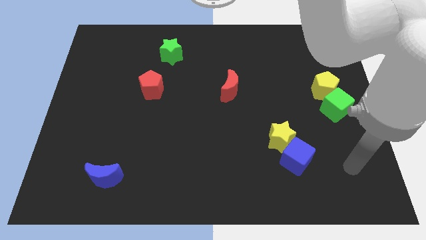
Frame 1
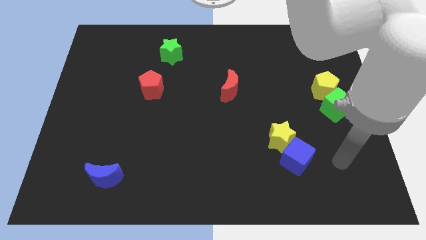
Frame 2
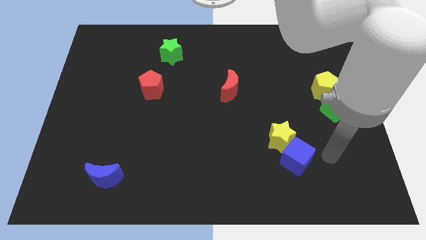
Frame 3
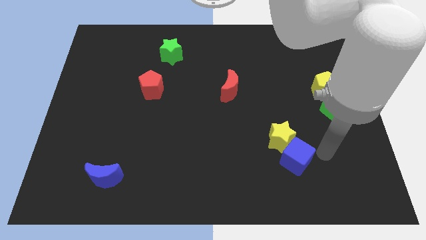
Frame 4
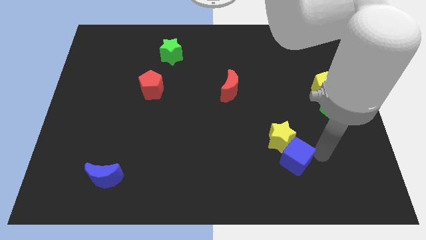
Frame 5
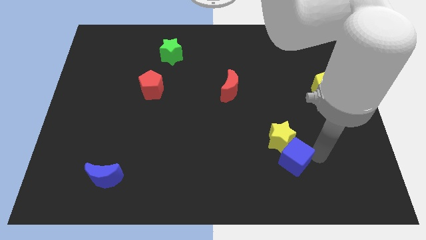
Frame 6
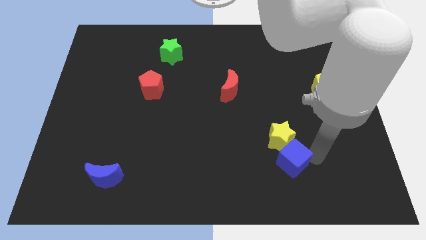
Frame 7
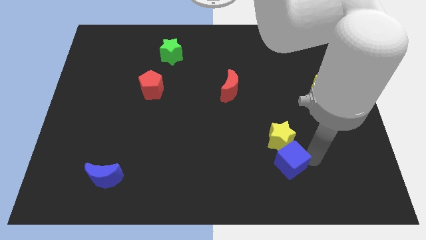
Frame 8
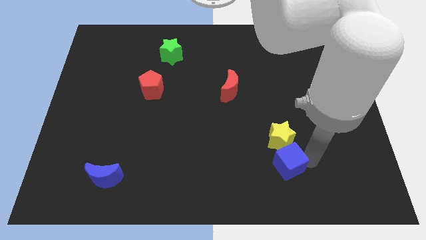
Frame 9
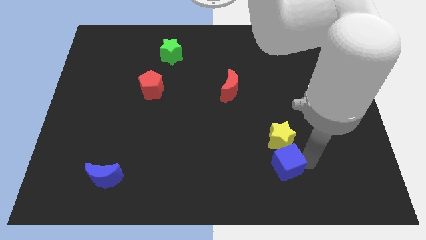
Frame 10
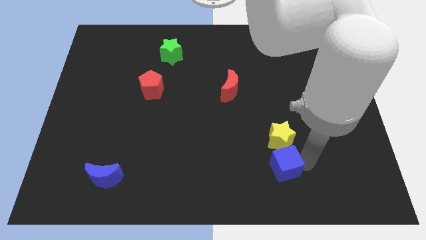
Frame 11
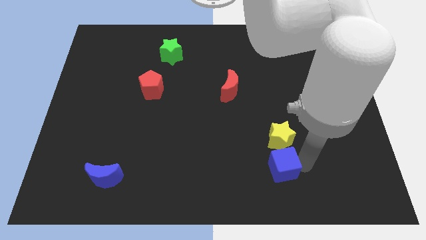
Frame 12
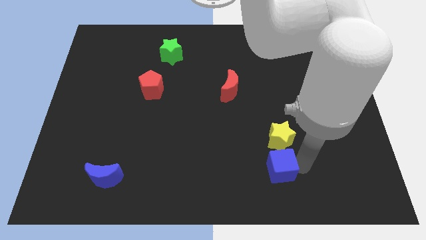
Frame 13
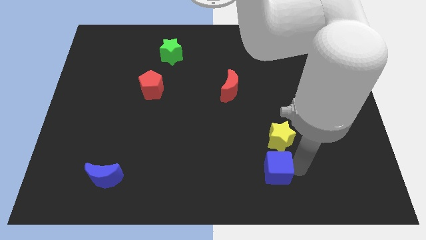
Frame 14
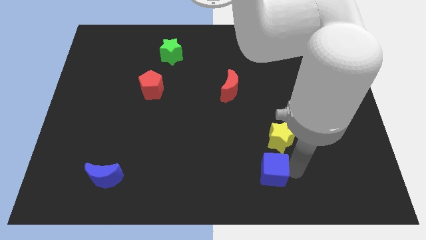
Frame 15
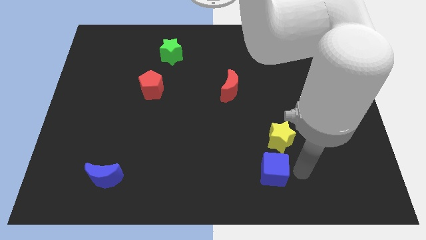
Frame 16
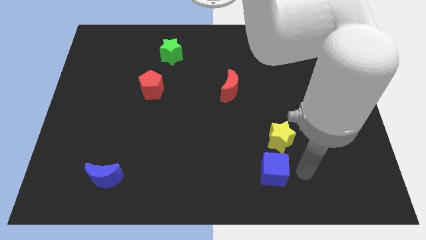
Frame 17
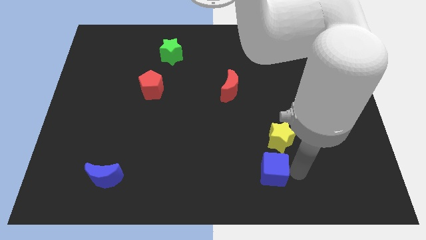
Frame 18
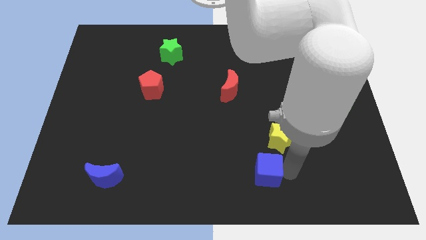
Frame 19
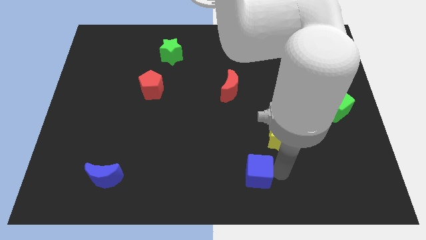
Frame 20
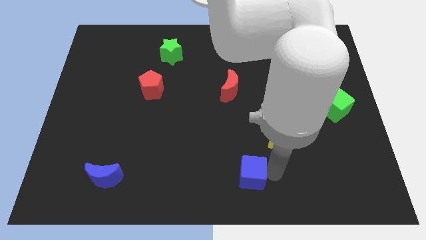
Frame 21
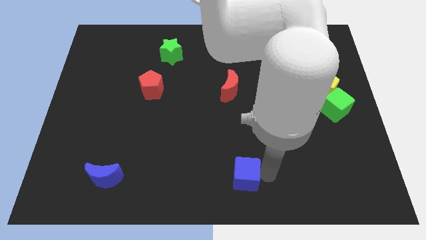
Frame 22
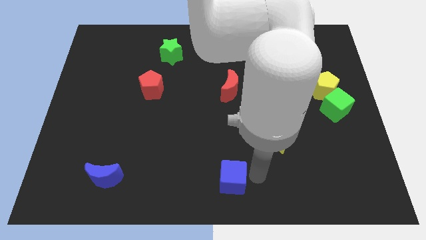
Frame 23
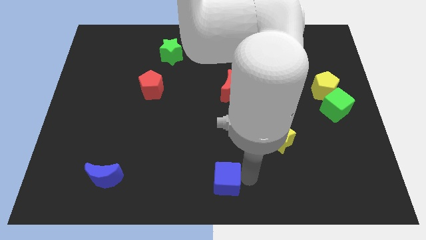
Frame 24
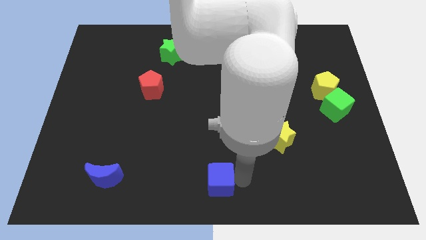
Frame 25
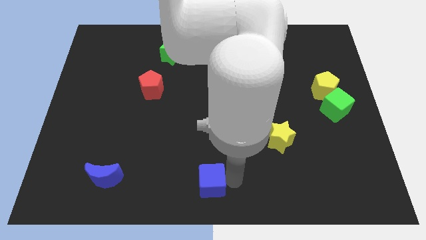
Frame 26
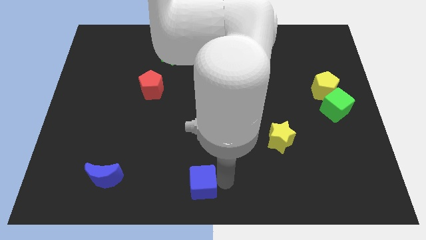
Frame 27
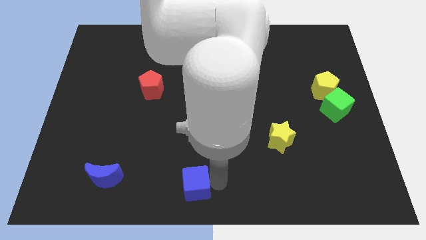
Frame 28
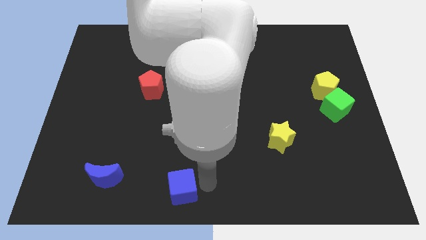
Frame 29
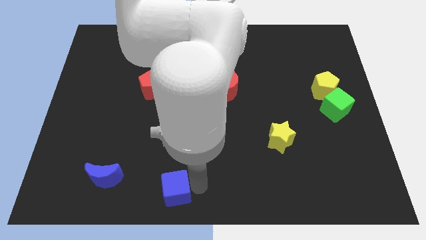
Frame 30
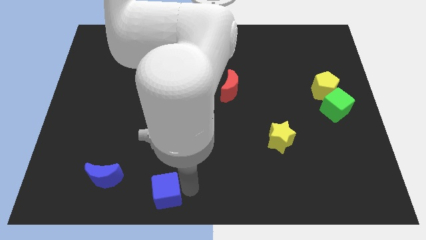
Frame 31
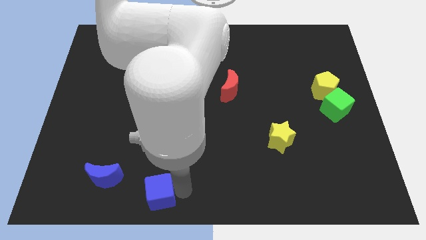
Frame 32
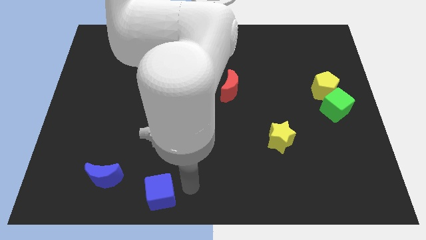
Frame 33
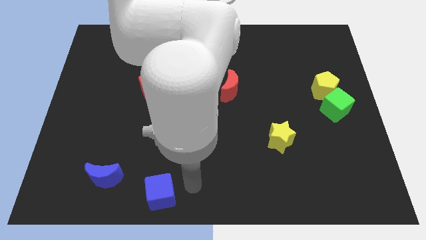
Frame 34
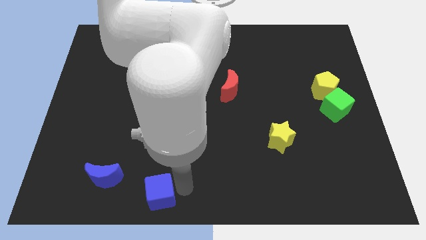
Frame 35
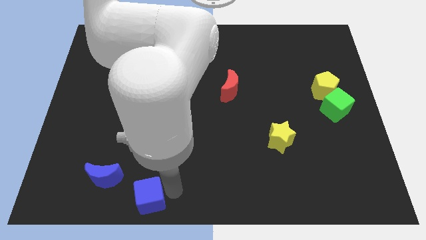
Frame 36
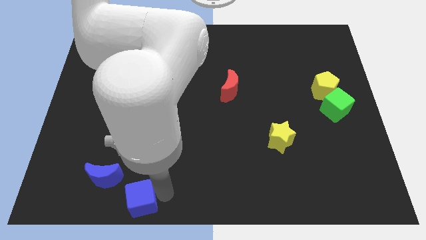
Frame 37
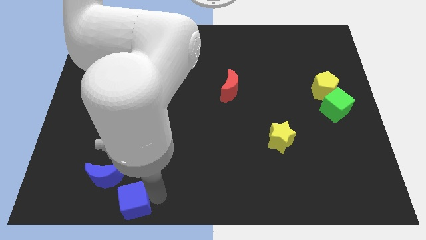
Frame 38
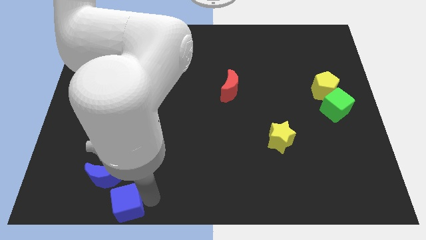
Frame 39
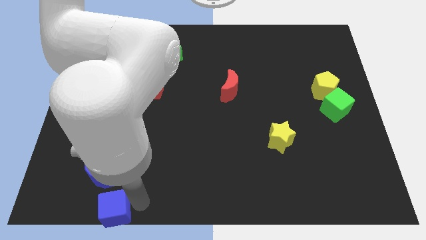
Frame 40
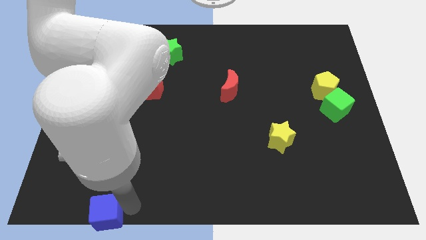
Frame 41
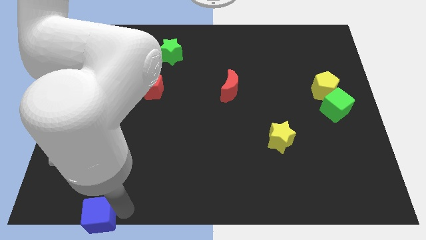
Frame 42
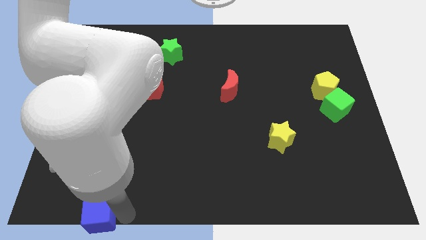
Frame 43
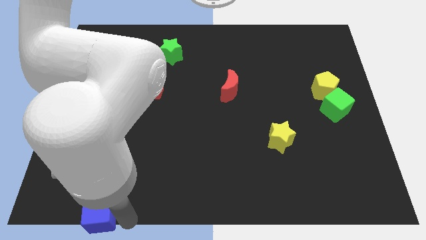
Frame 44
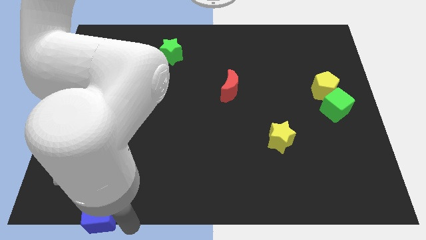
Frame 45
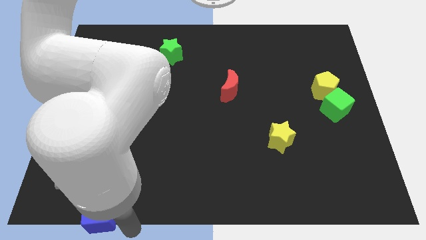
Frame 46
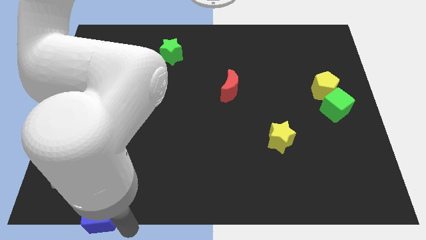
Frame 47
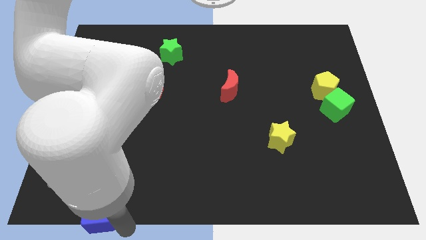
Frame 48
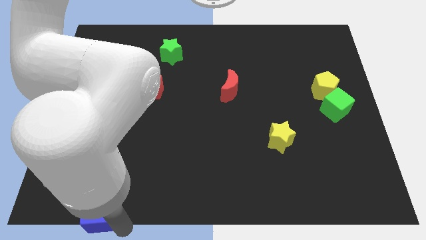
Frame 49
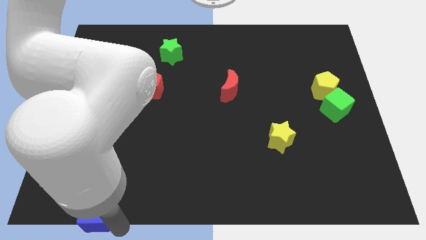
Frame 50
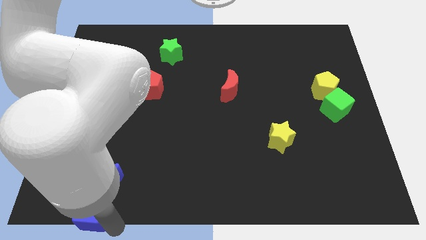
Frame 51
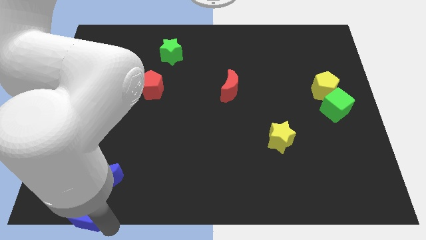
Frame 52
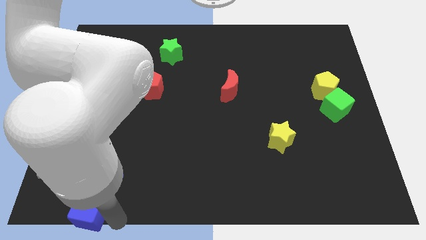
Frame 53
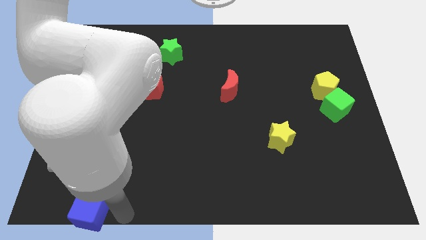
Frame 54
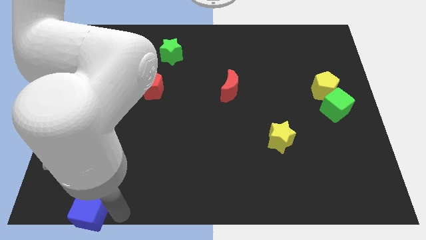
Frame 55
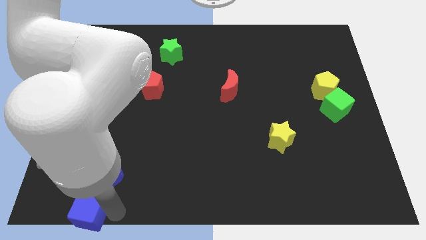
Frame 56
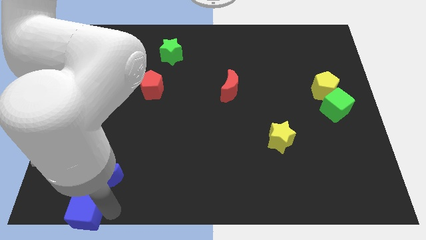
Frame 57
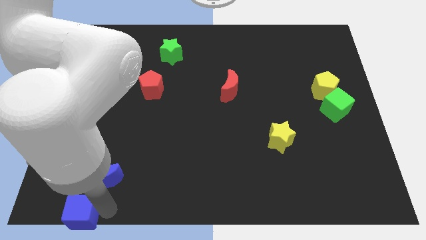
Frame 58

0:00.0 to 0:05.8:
move the blue cube to the bottom left

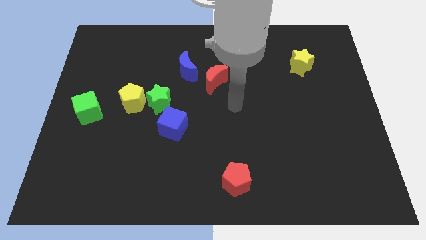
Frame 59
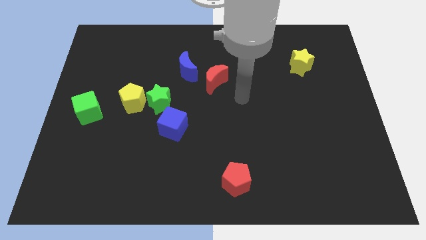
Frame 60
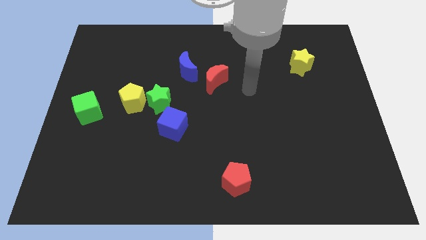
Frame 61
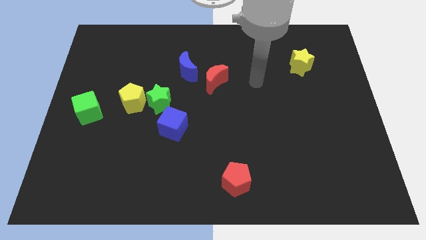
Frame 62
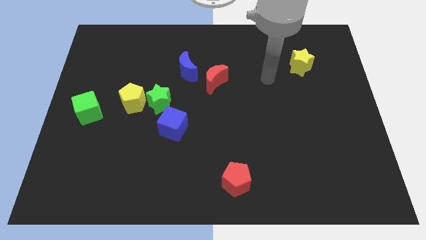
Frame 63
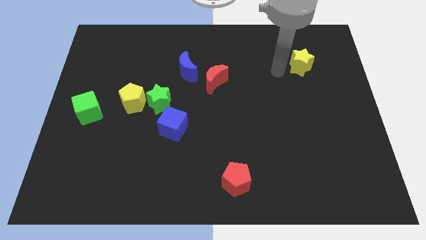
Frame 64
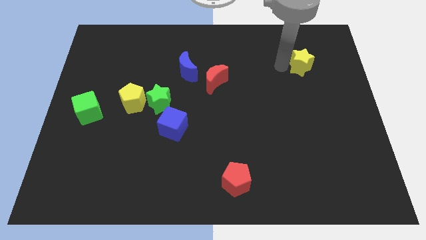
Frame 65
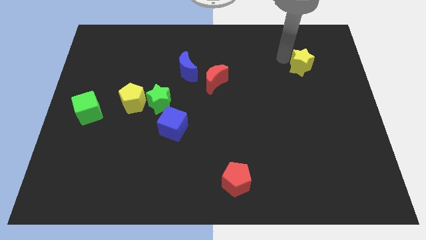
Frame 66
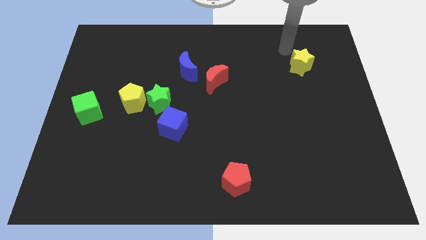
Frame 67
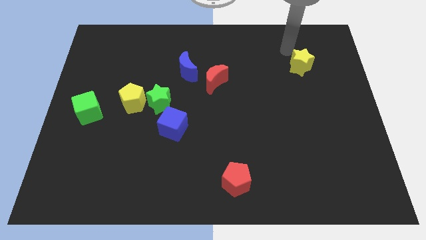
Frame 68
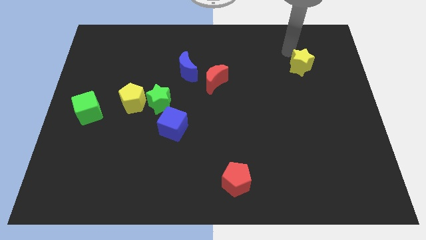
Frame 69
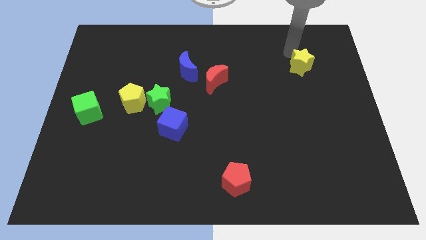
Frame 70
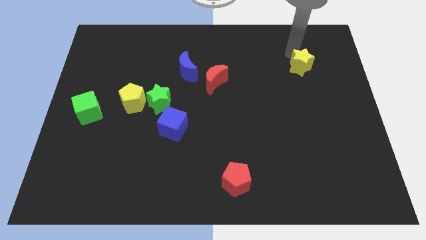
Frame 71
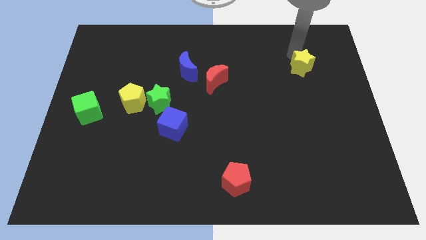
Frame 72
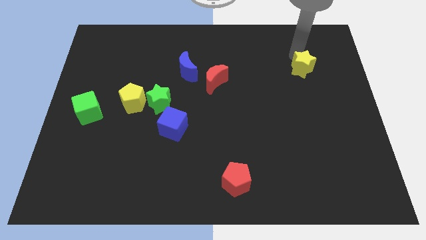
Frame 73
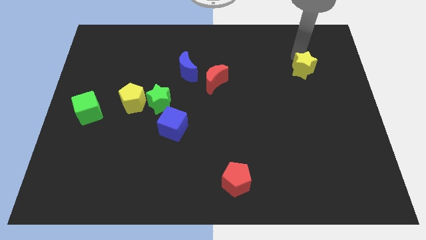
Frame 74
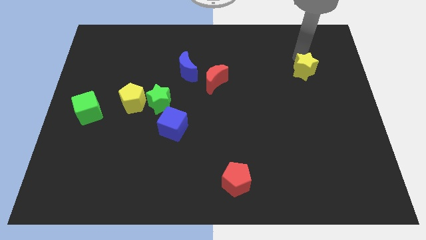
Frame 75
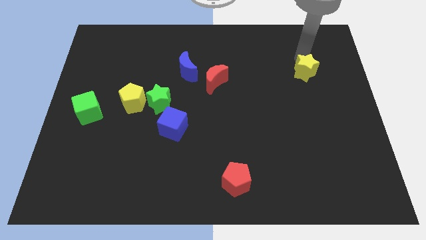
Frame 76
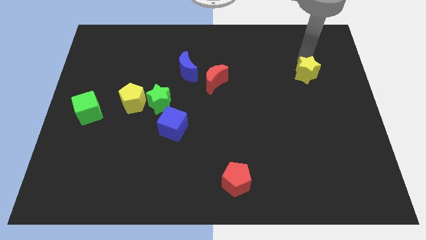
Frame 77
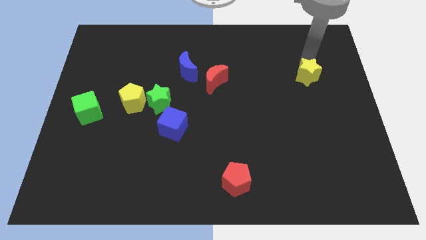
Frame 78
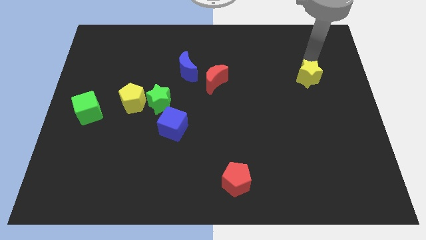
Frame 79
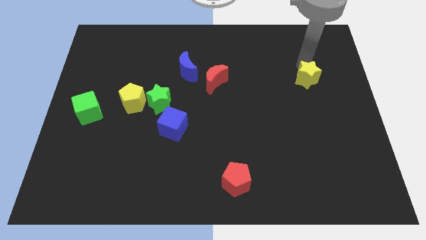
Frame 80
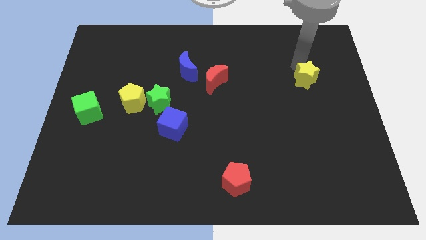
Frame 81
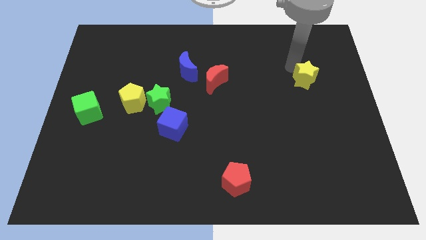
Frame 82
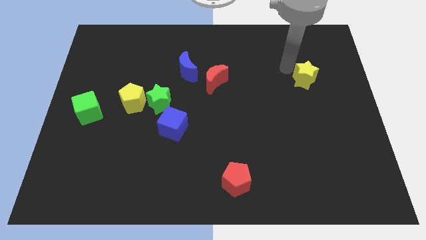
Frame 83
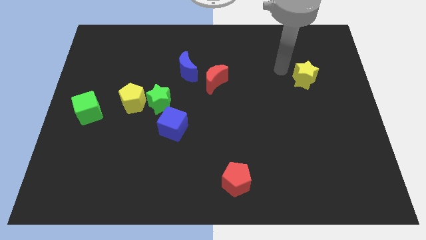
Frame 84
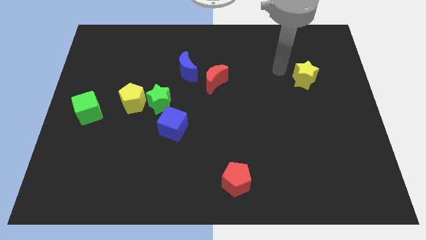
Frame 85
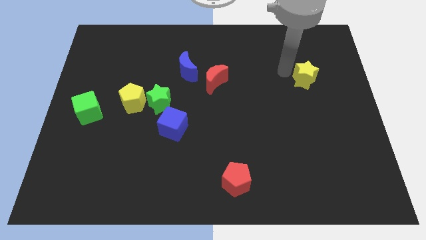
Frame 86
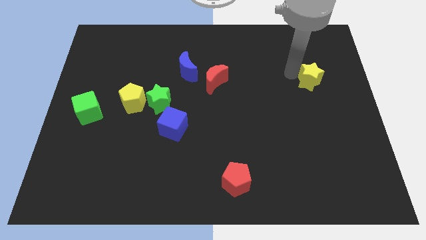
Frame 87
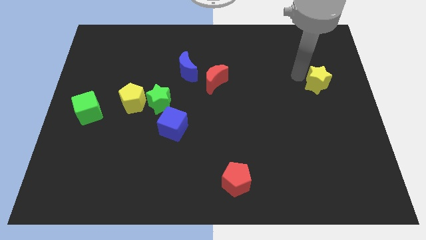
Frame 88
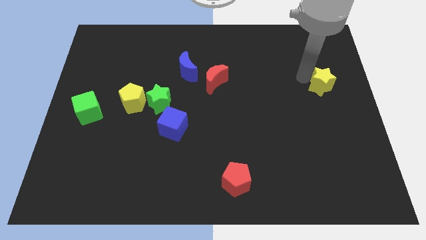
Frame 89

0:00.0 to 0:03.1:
move the yellow star to the center right
